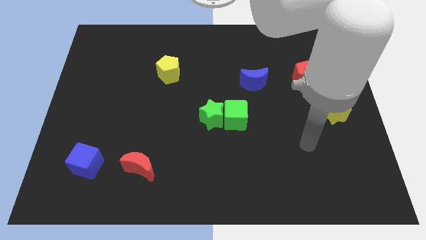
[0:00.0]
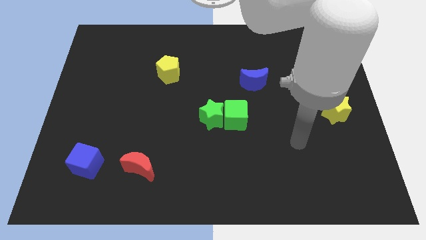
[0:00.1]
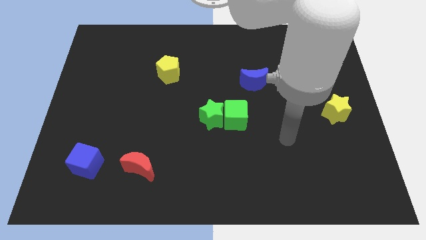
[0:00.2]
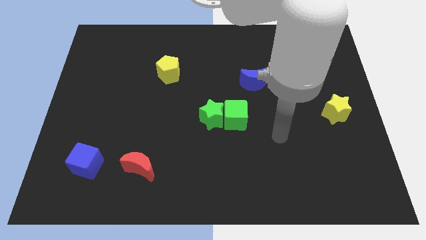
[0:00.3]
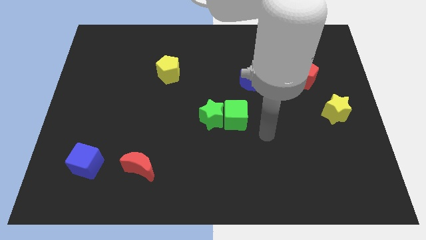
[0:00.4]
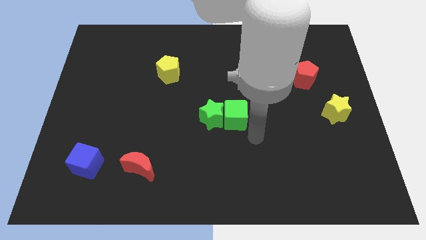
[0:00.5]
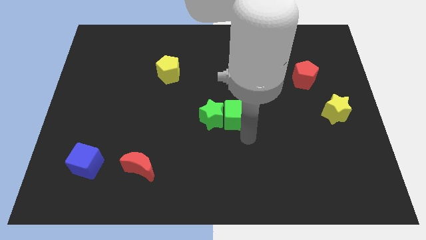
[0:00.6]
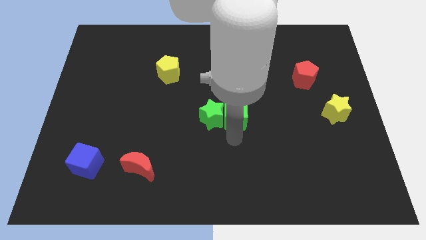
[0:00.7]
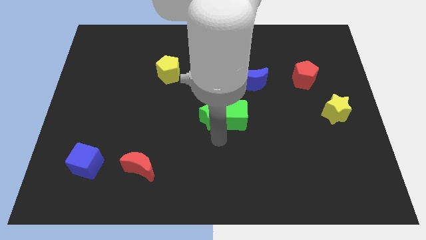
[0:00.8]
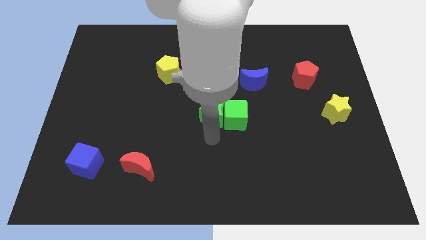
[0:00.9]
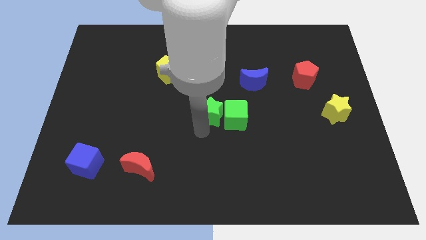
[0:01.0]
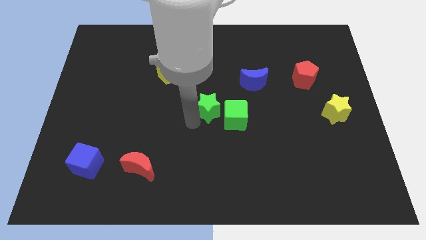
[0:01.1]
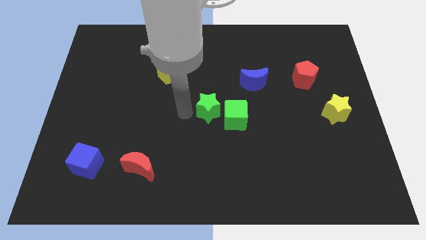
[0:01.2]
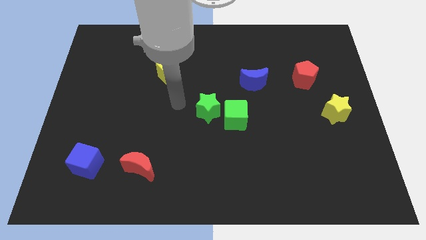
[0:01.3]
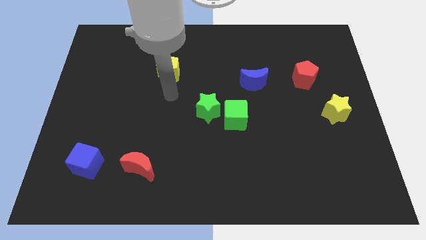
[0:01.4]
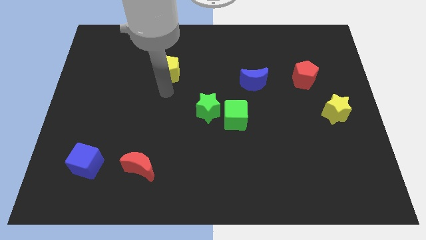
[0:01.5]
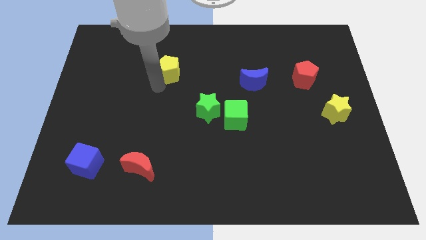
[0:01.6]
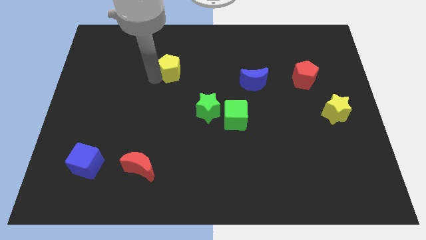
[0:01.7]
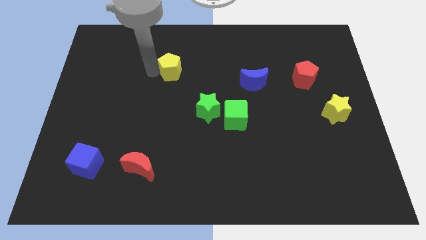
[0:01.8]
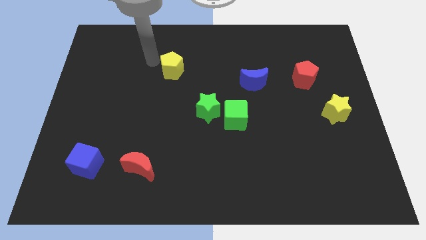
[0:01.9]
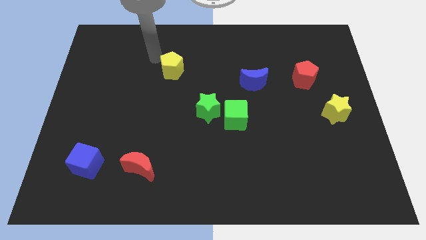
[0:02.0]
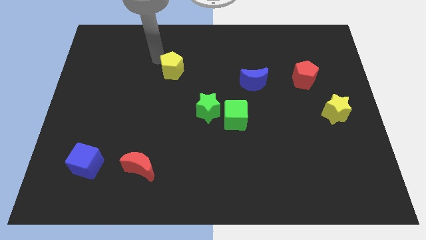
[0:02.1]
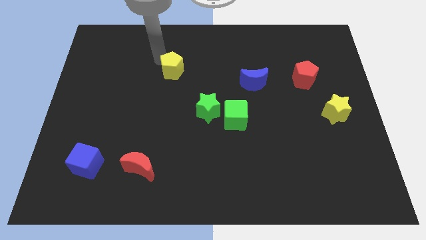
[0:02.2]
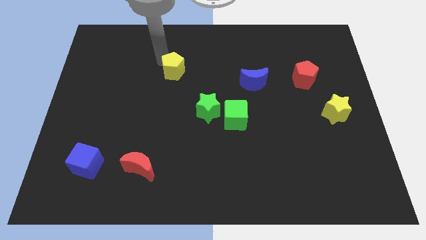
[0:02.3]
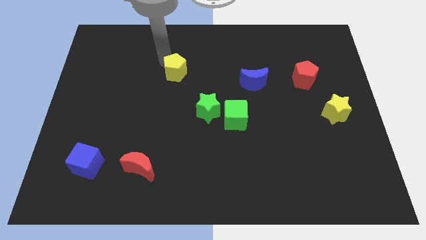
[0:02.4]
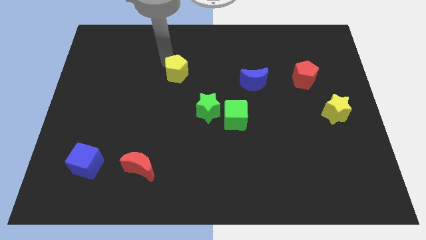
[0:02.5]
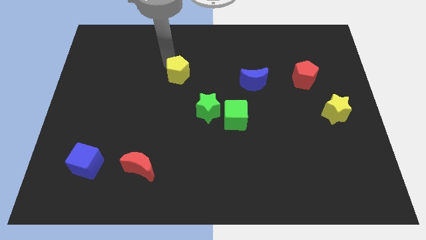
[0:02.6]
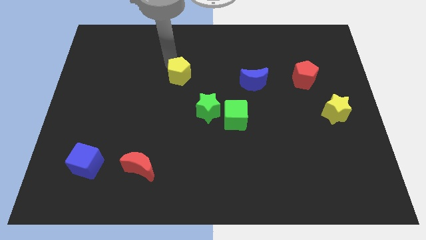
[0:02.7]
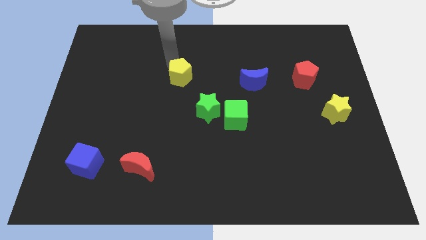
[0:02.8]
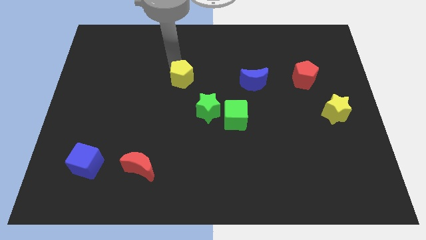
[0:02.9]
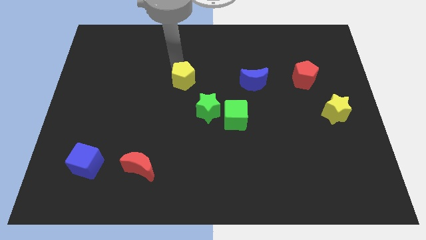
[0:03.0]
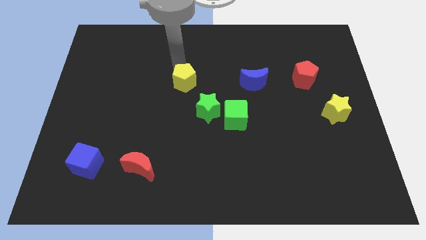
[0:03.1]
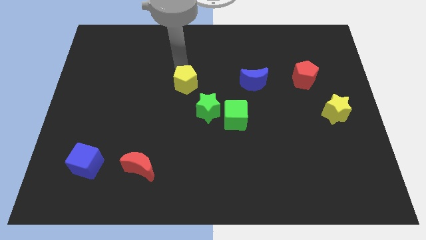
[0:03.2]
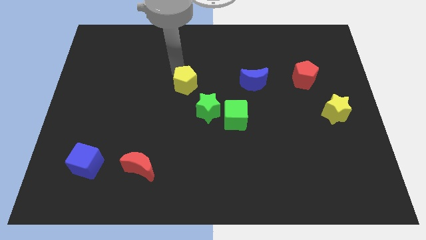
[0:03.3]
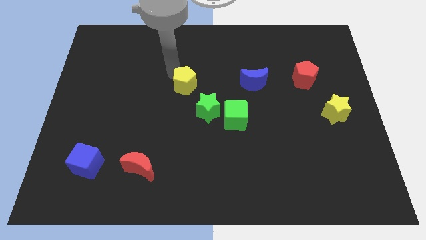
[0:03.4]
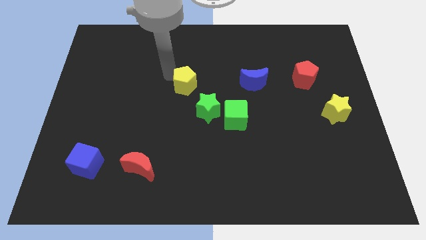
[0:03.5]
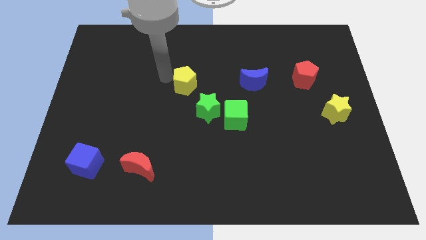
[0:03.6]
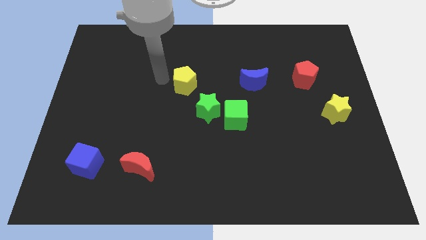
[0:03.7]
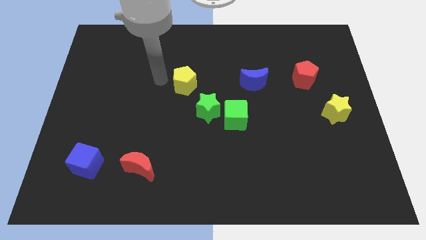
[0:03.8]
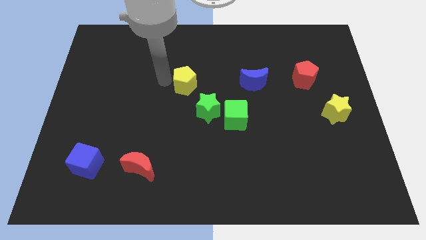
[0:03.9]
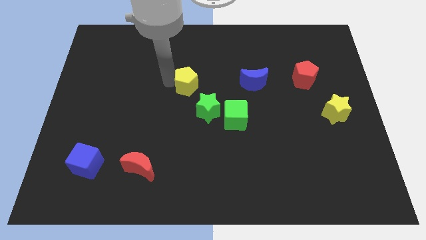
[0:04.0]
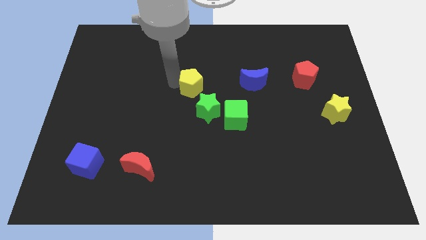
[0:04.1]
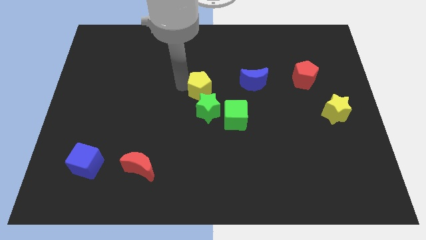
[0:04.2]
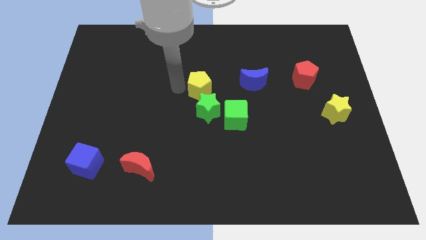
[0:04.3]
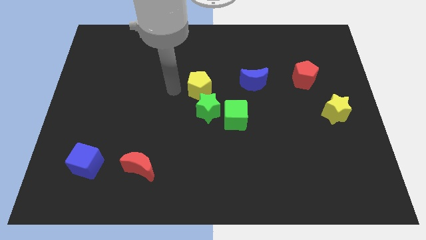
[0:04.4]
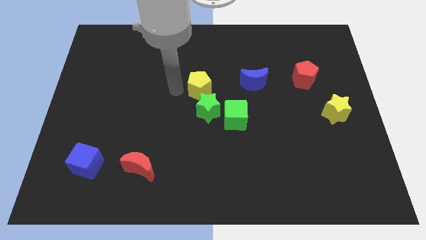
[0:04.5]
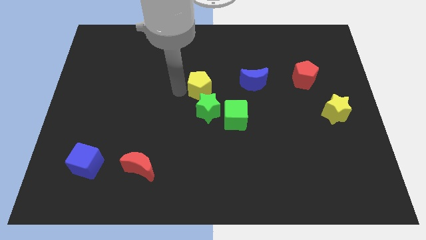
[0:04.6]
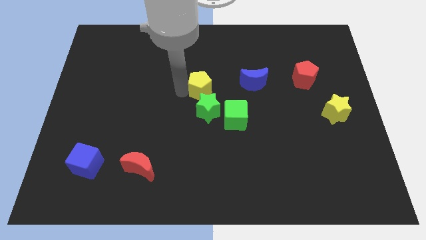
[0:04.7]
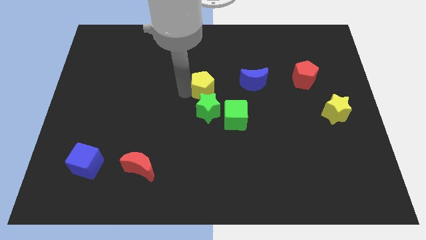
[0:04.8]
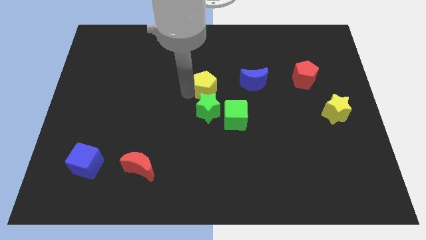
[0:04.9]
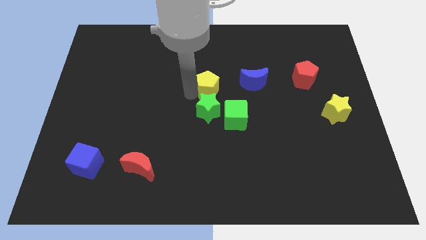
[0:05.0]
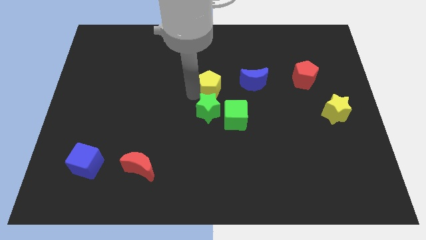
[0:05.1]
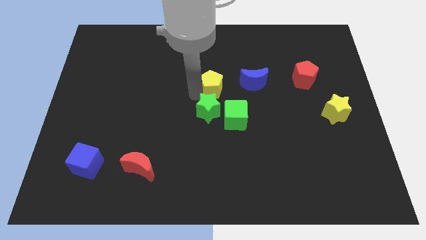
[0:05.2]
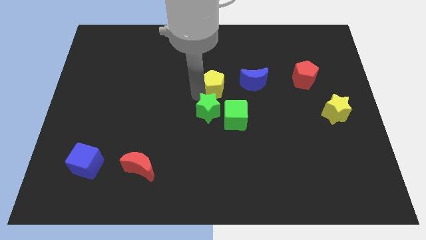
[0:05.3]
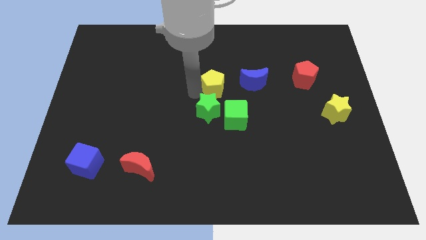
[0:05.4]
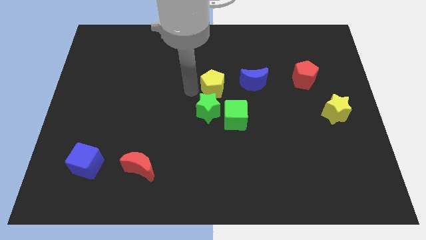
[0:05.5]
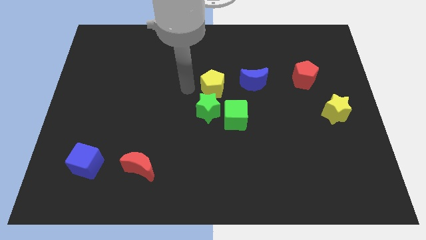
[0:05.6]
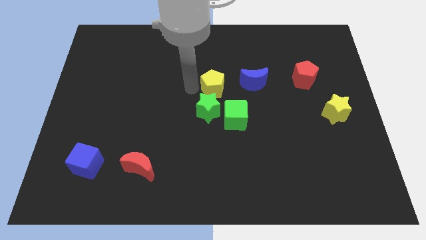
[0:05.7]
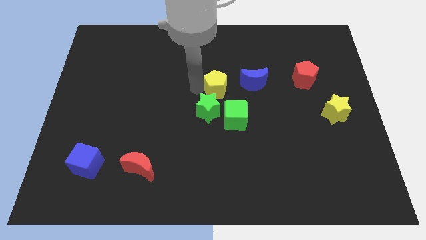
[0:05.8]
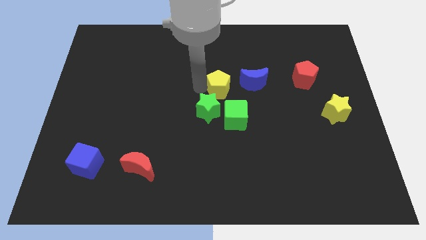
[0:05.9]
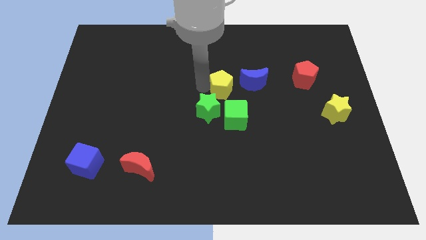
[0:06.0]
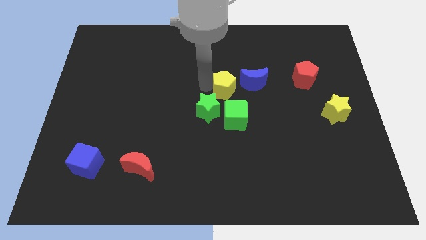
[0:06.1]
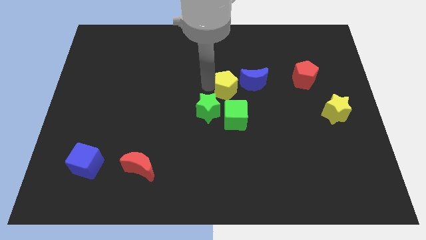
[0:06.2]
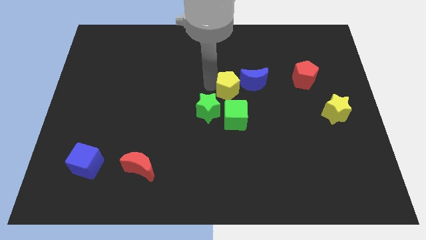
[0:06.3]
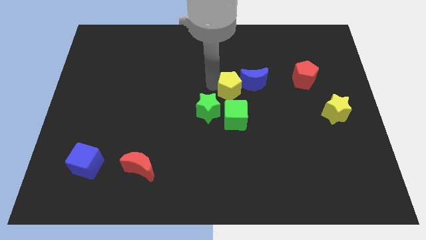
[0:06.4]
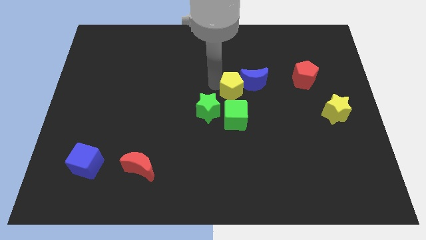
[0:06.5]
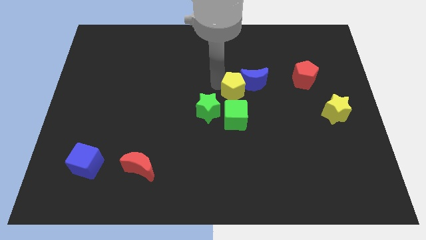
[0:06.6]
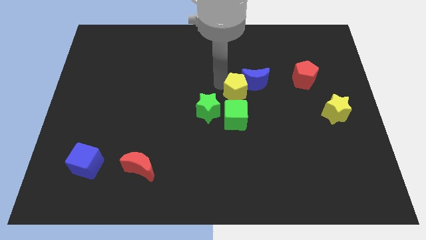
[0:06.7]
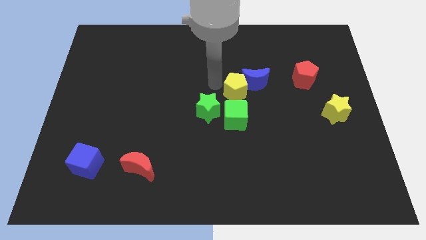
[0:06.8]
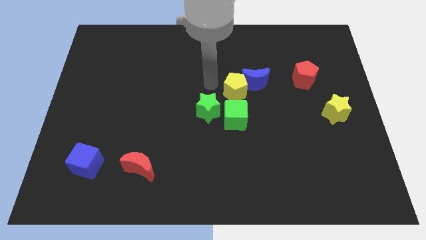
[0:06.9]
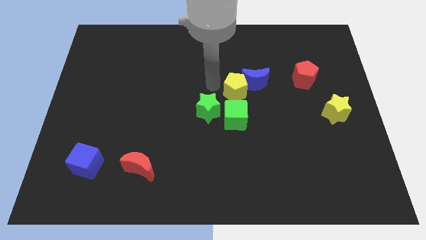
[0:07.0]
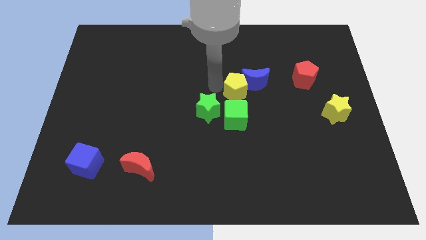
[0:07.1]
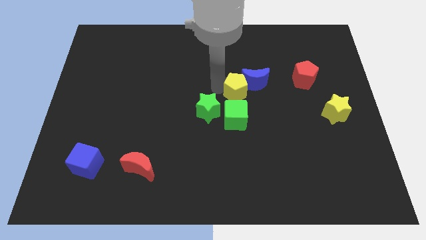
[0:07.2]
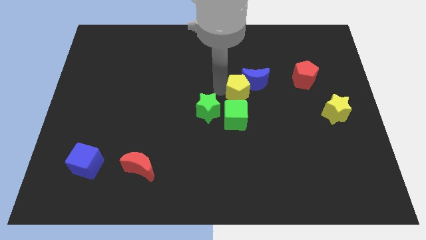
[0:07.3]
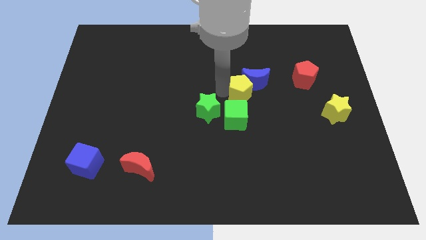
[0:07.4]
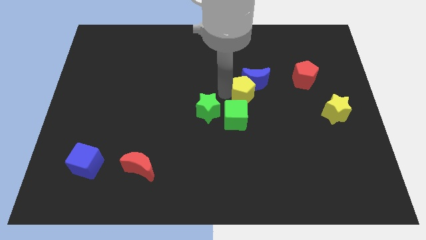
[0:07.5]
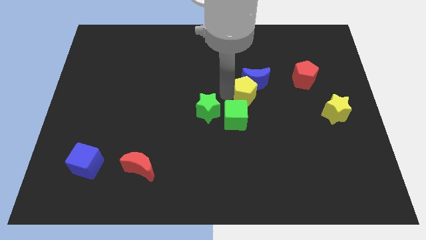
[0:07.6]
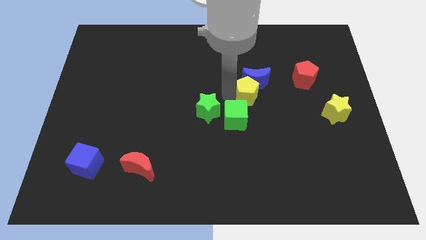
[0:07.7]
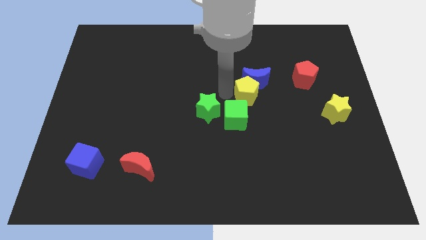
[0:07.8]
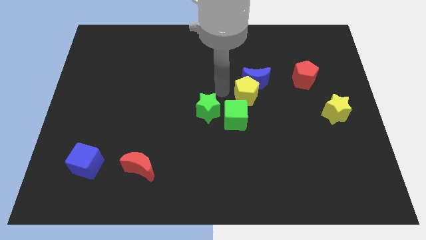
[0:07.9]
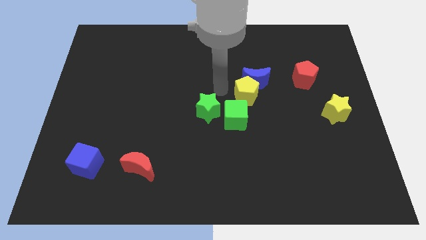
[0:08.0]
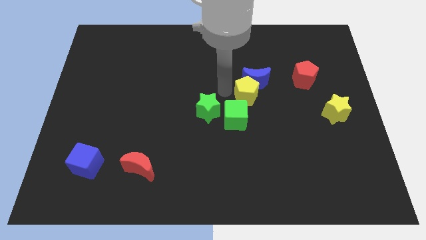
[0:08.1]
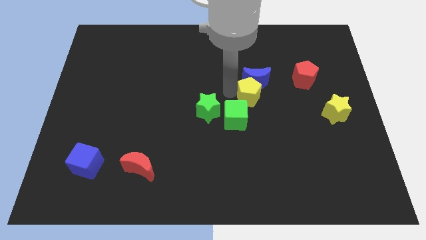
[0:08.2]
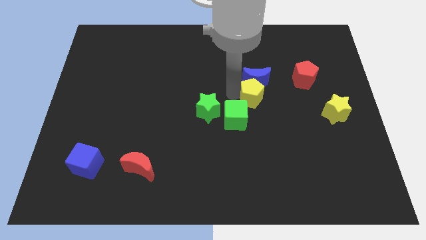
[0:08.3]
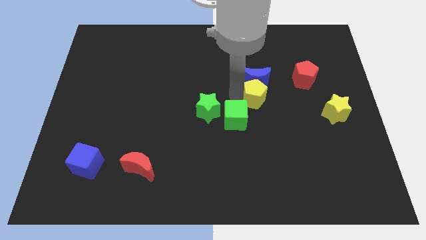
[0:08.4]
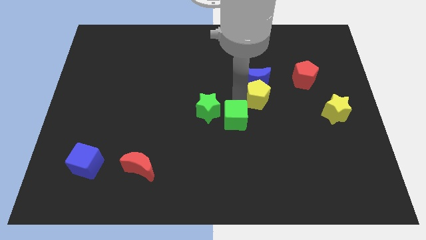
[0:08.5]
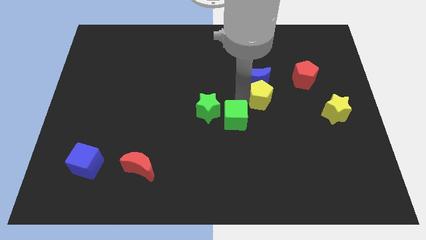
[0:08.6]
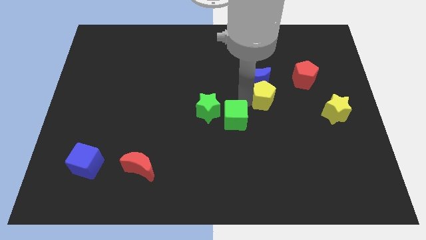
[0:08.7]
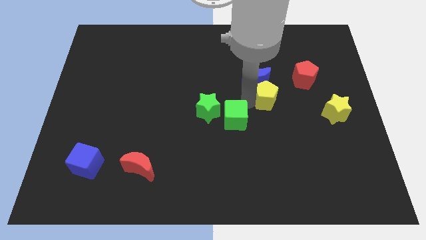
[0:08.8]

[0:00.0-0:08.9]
move the yellow pentagon diagonally down and to the left of the red pentagon
